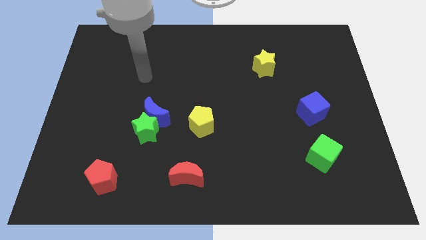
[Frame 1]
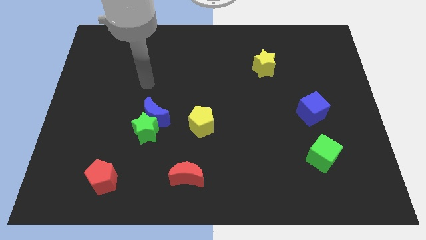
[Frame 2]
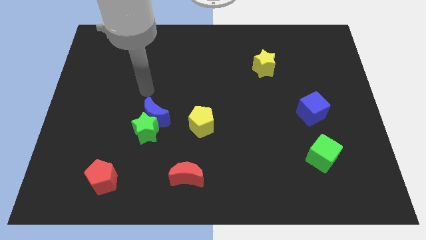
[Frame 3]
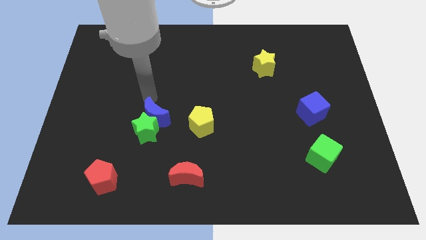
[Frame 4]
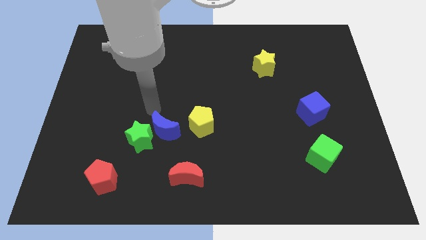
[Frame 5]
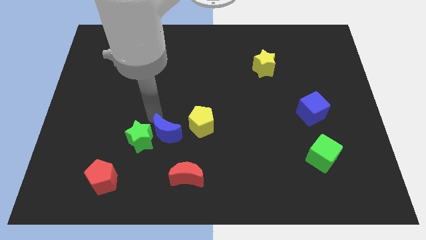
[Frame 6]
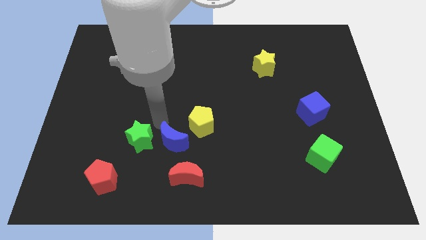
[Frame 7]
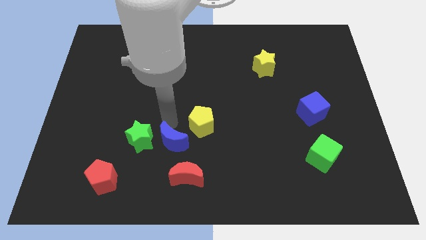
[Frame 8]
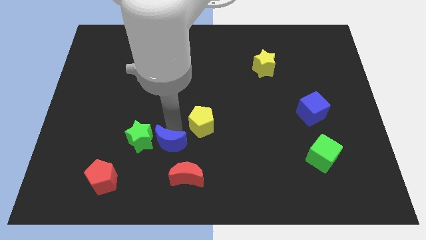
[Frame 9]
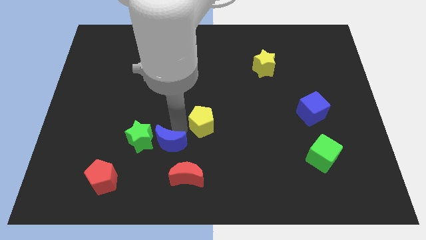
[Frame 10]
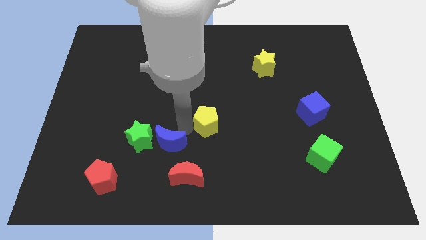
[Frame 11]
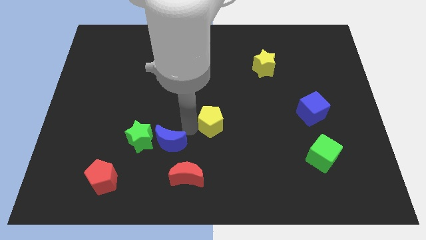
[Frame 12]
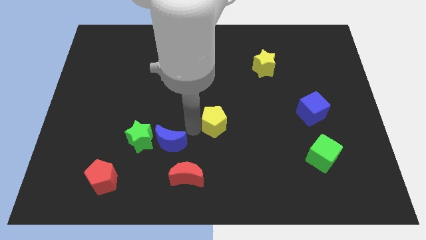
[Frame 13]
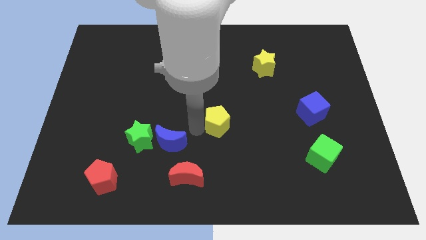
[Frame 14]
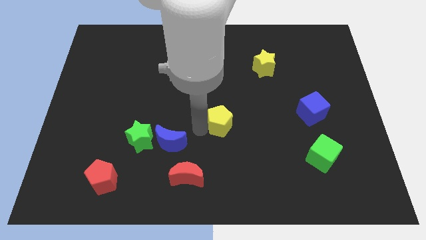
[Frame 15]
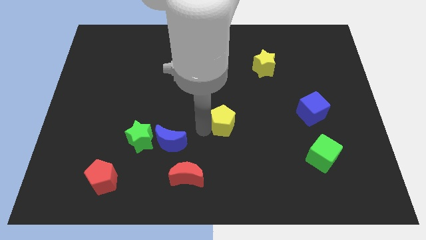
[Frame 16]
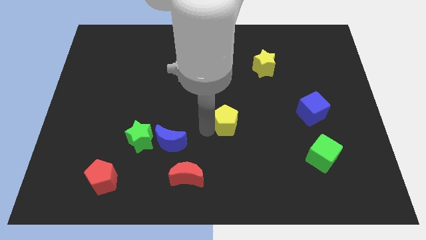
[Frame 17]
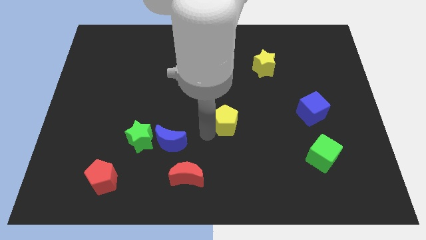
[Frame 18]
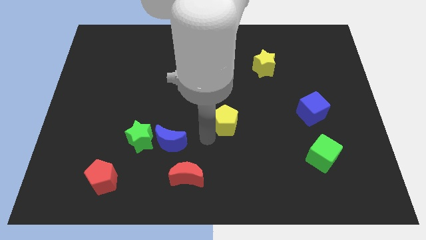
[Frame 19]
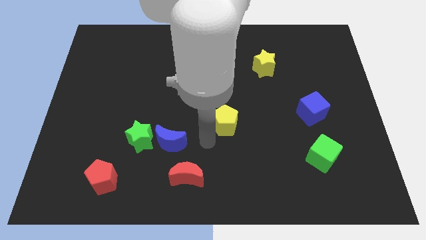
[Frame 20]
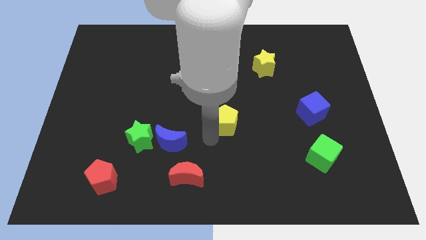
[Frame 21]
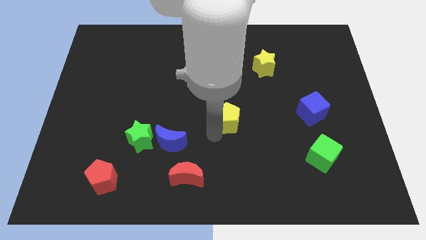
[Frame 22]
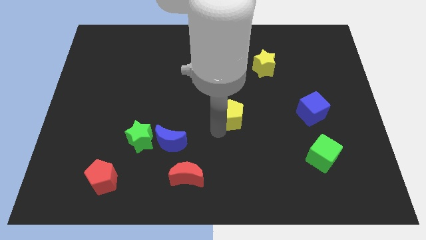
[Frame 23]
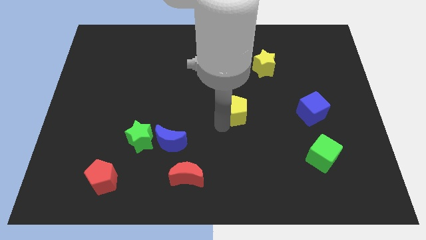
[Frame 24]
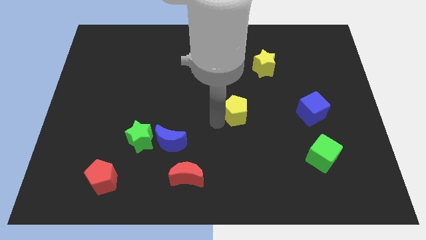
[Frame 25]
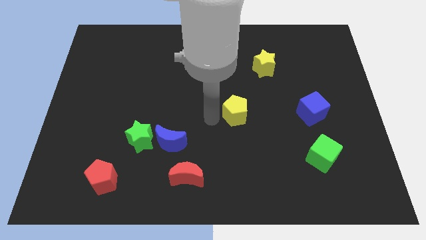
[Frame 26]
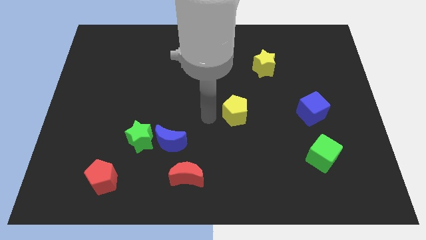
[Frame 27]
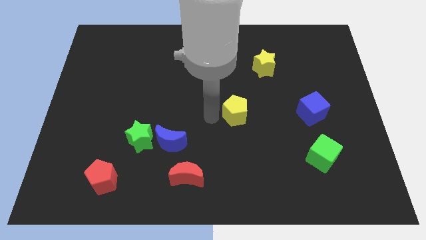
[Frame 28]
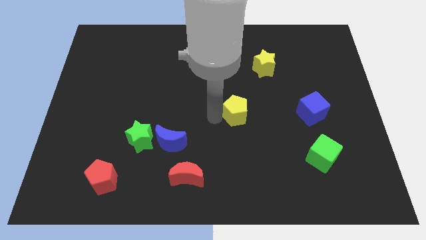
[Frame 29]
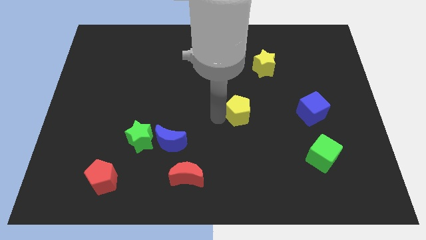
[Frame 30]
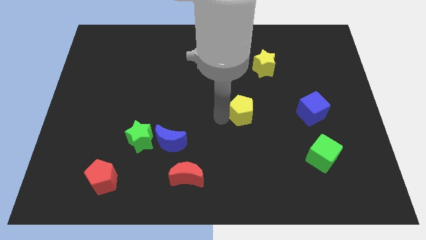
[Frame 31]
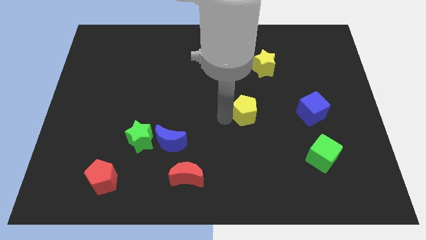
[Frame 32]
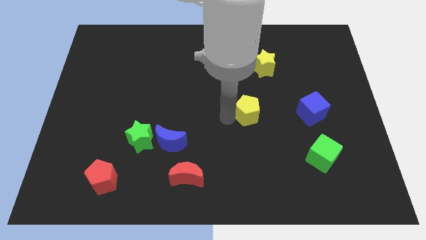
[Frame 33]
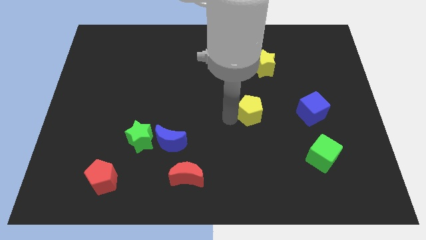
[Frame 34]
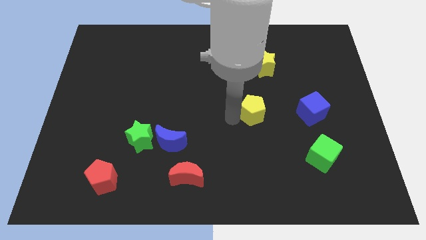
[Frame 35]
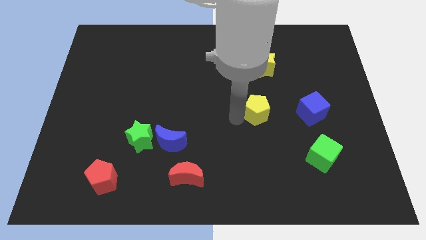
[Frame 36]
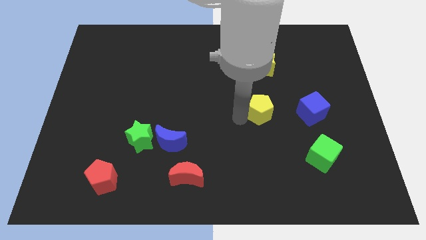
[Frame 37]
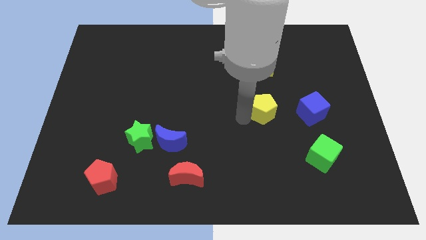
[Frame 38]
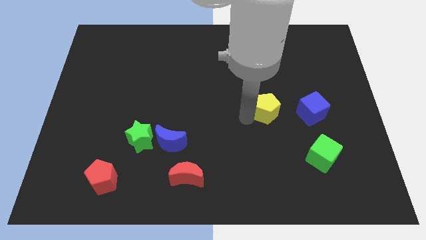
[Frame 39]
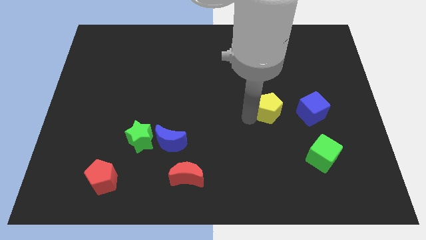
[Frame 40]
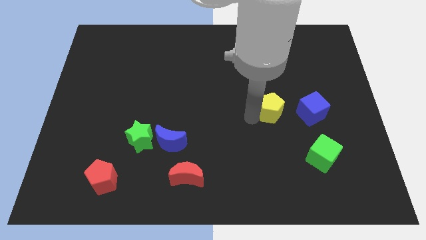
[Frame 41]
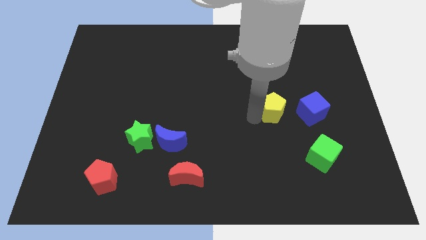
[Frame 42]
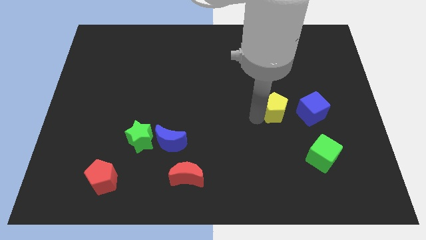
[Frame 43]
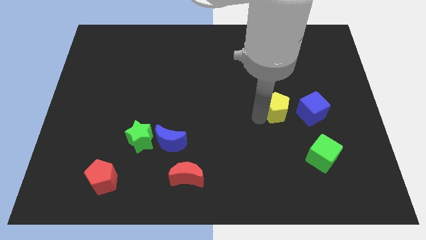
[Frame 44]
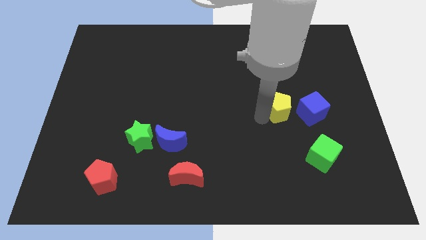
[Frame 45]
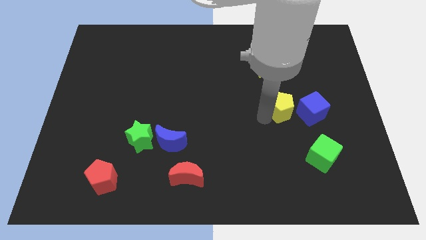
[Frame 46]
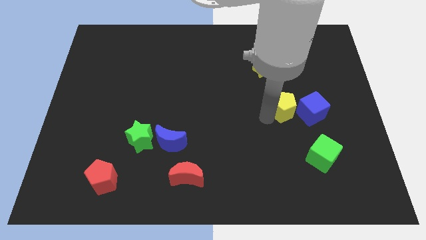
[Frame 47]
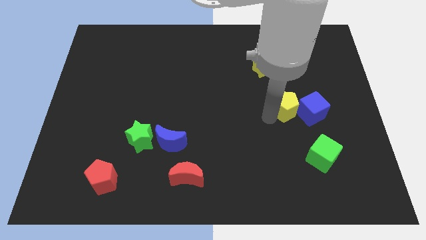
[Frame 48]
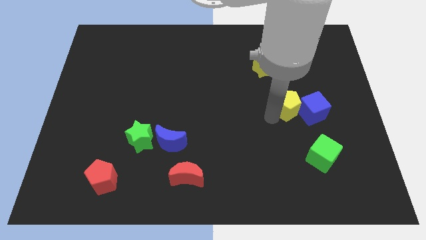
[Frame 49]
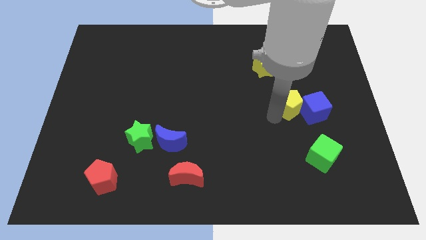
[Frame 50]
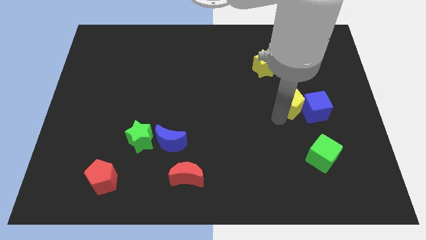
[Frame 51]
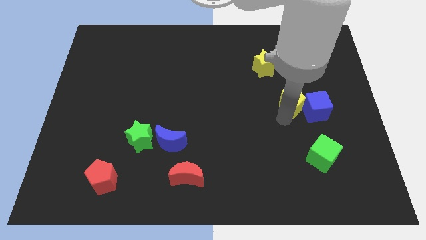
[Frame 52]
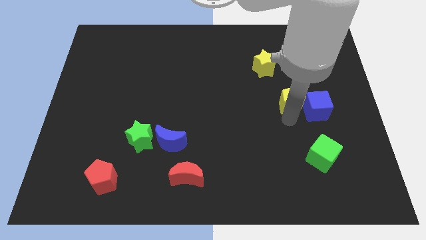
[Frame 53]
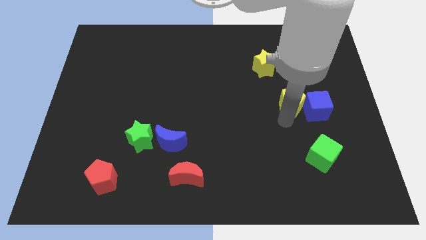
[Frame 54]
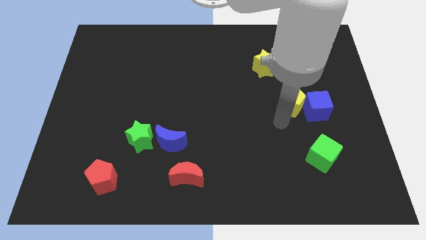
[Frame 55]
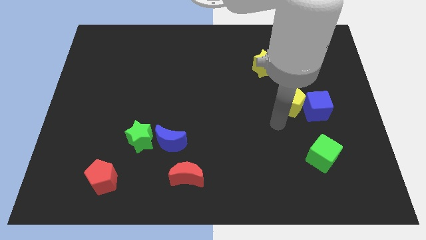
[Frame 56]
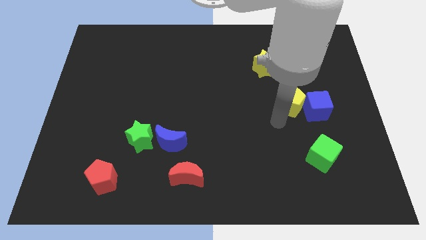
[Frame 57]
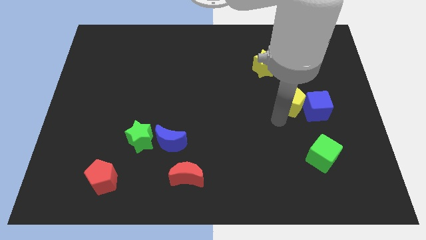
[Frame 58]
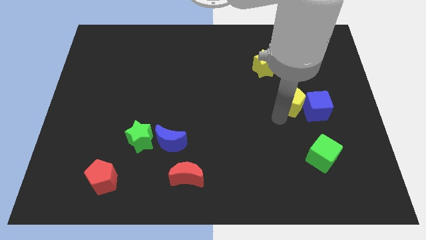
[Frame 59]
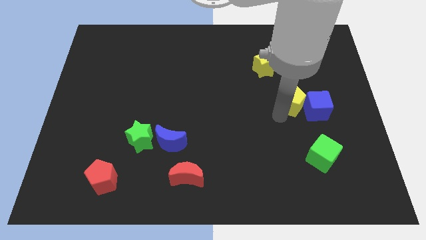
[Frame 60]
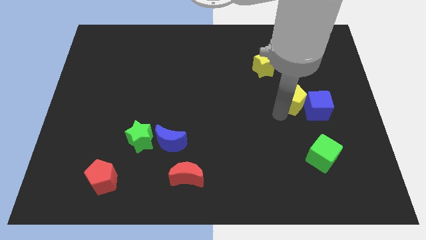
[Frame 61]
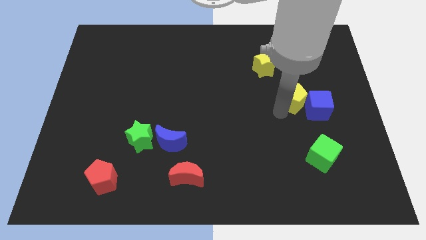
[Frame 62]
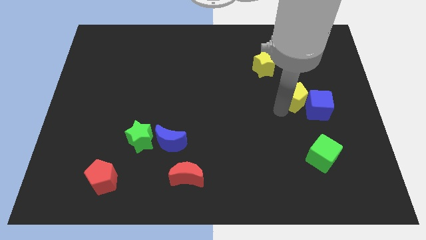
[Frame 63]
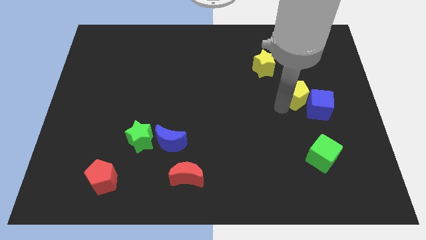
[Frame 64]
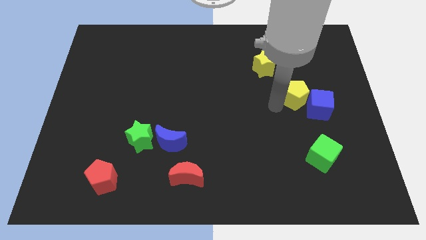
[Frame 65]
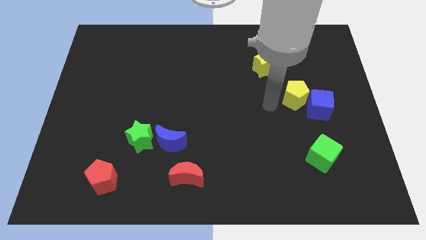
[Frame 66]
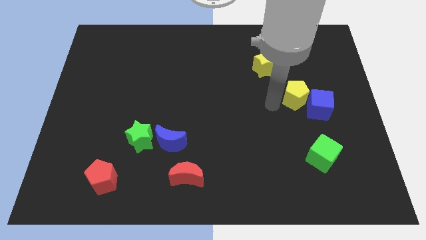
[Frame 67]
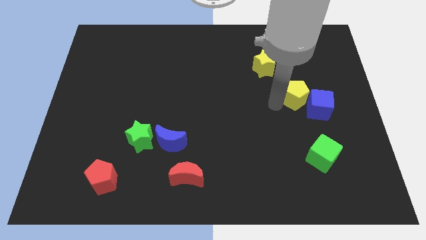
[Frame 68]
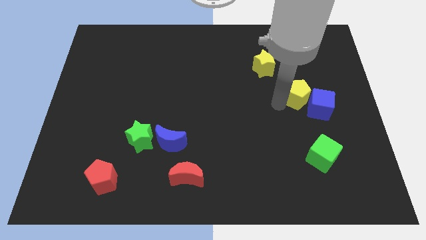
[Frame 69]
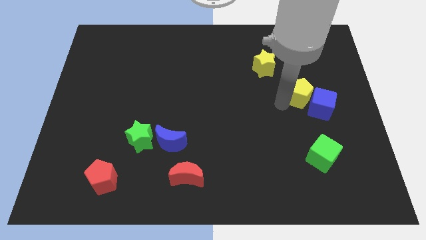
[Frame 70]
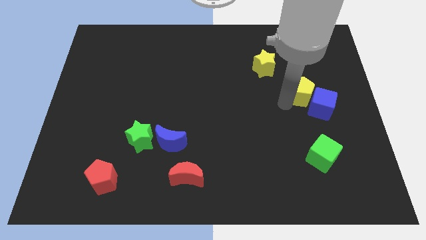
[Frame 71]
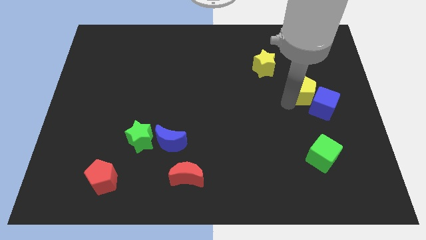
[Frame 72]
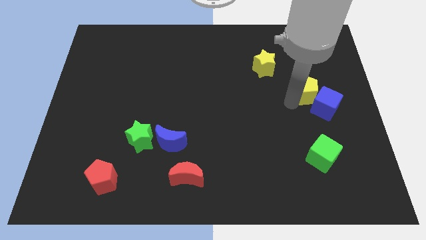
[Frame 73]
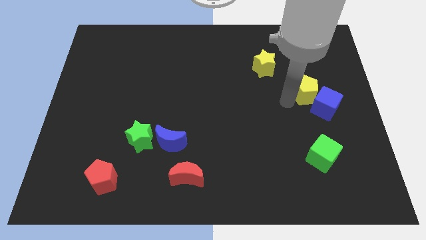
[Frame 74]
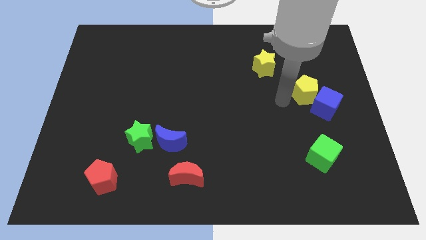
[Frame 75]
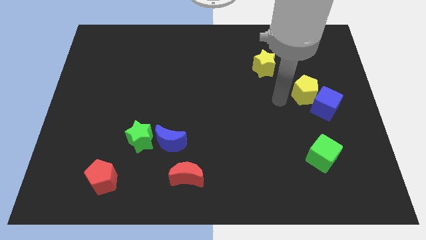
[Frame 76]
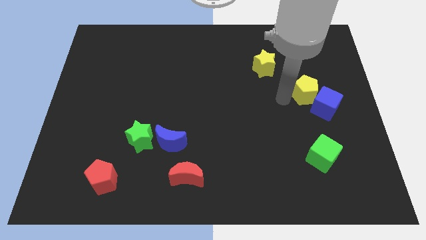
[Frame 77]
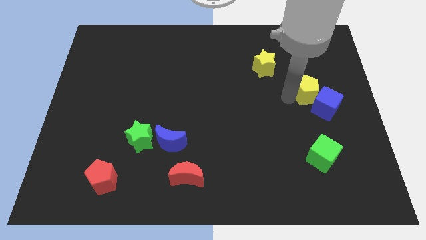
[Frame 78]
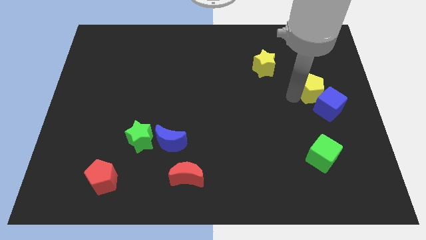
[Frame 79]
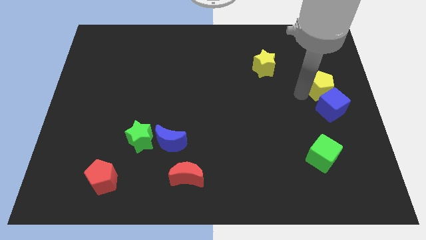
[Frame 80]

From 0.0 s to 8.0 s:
put the yellow pentagon to the center right
